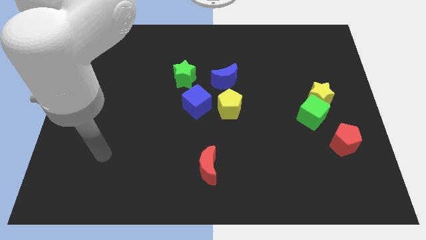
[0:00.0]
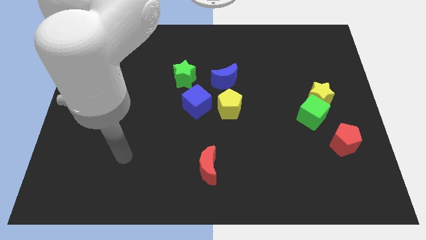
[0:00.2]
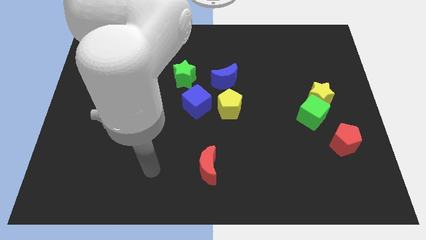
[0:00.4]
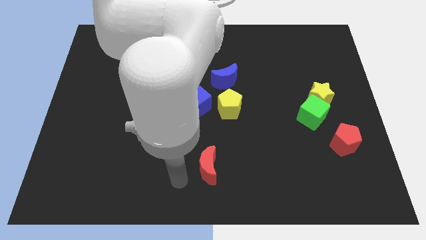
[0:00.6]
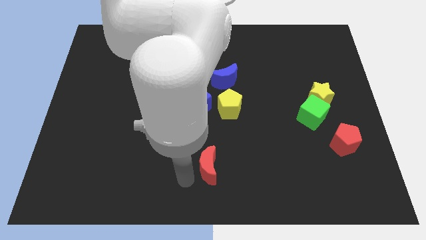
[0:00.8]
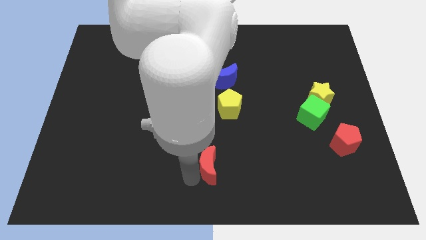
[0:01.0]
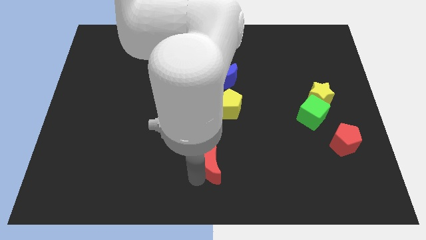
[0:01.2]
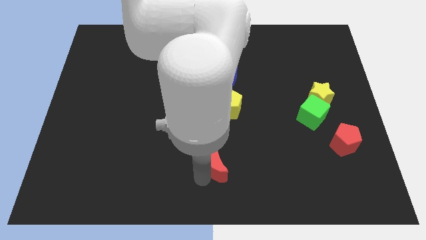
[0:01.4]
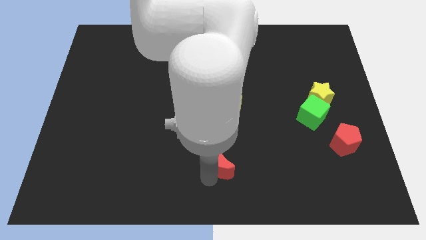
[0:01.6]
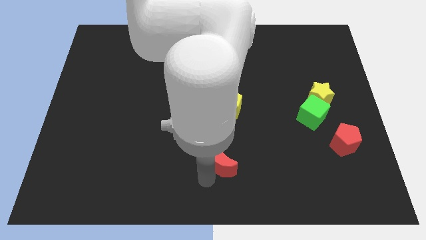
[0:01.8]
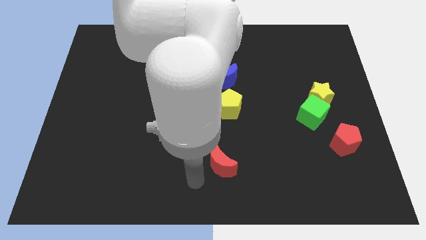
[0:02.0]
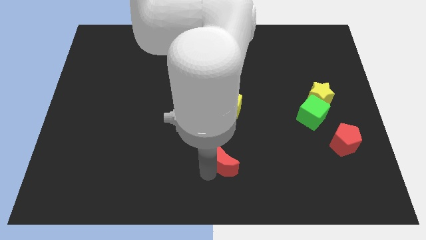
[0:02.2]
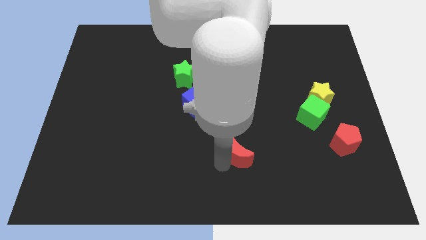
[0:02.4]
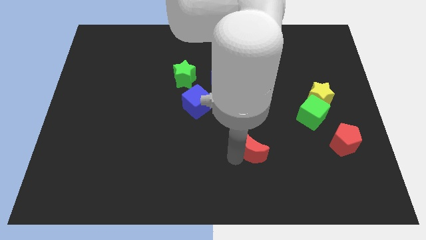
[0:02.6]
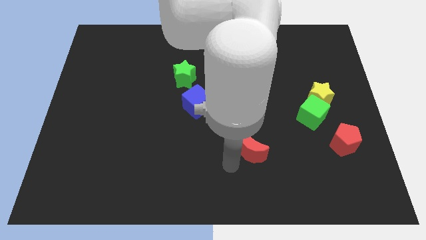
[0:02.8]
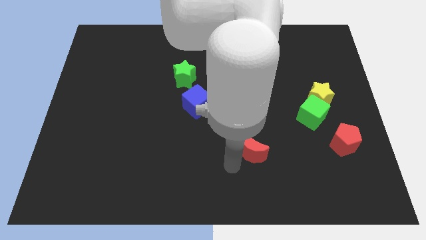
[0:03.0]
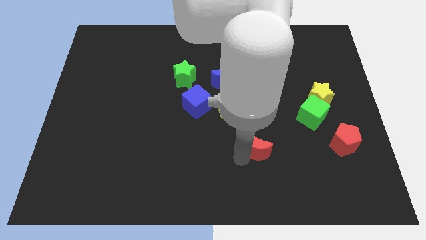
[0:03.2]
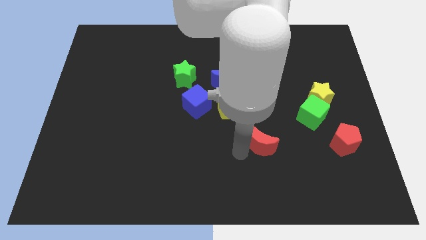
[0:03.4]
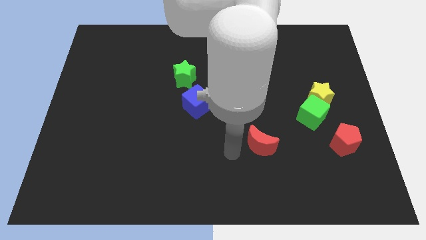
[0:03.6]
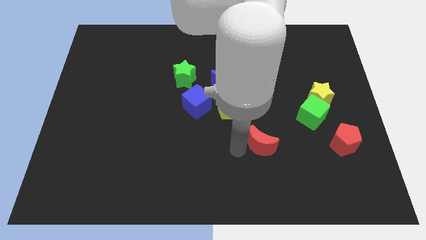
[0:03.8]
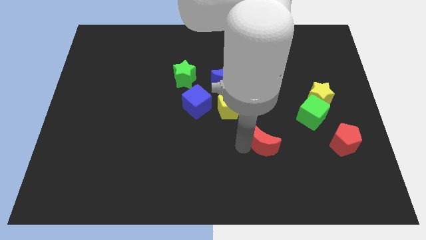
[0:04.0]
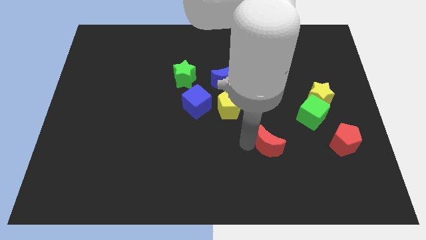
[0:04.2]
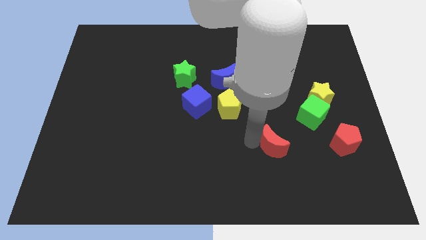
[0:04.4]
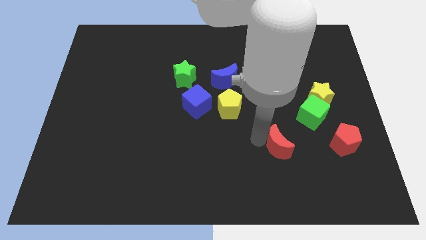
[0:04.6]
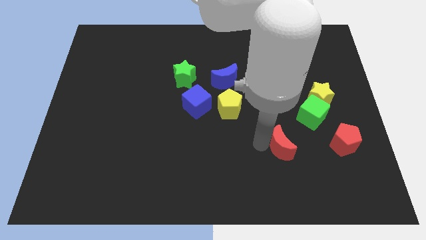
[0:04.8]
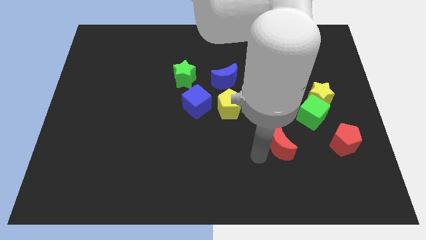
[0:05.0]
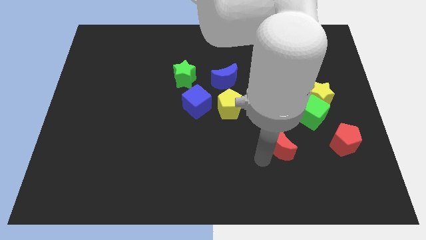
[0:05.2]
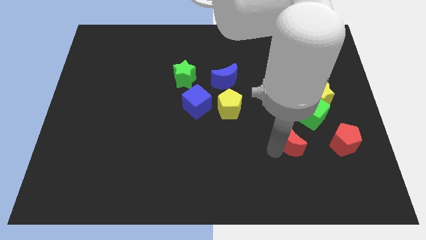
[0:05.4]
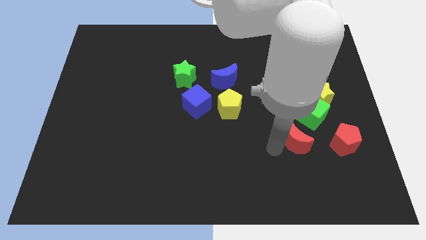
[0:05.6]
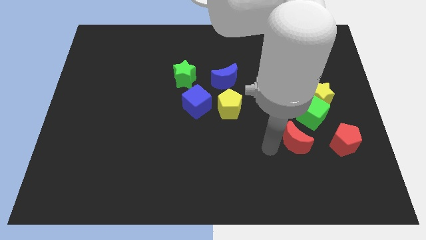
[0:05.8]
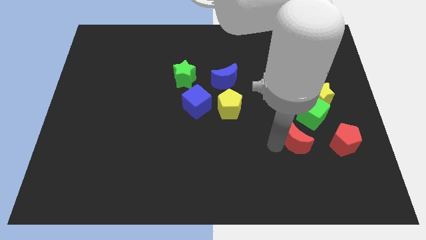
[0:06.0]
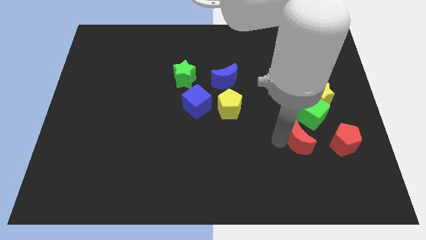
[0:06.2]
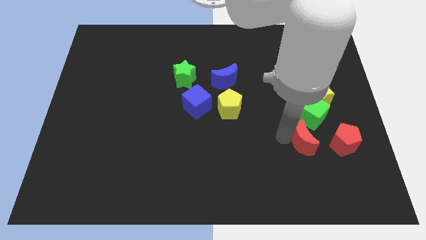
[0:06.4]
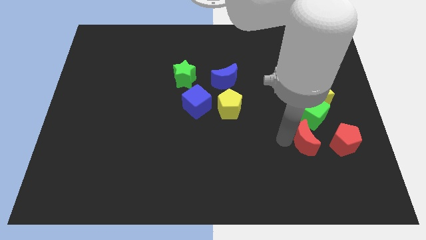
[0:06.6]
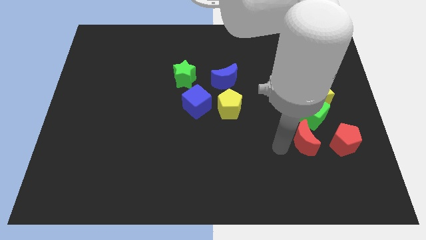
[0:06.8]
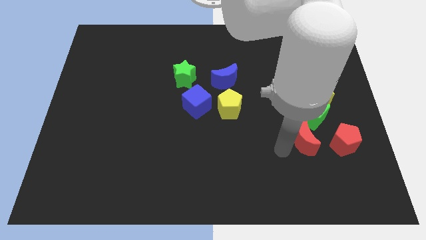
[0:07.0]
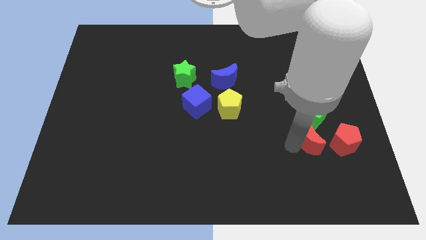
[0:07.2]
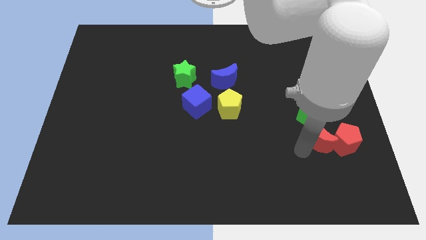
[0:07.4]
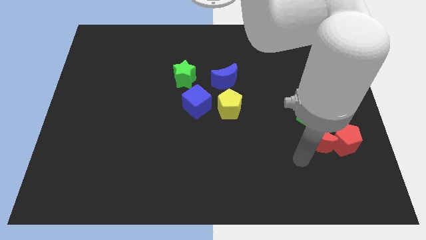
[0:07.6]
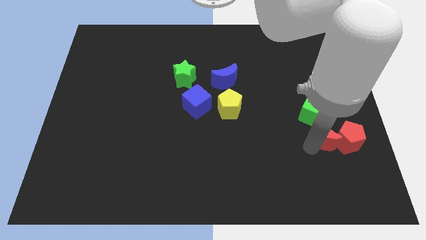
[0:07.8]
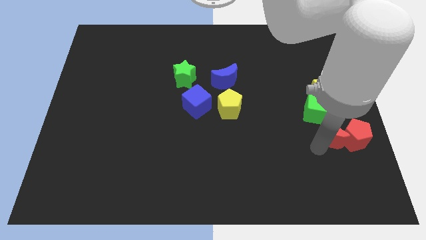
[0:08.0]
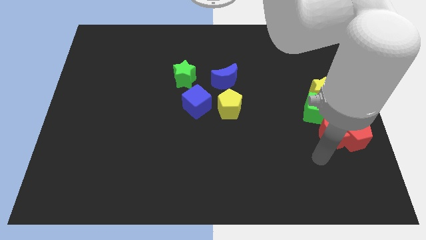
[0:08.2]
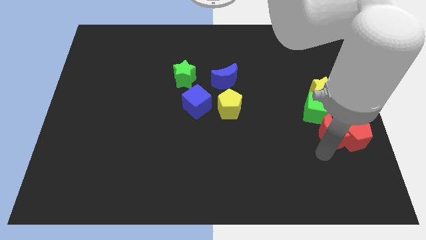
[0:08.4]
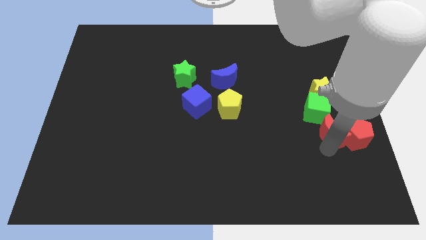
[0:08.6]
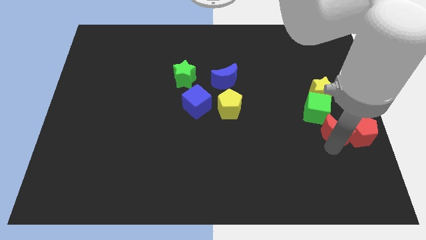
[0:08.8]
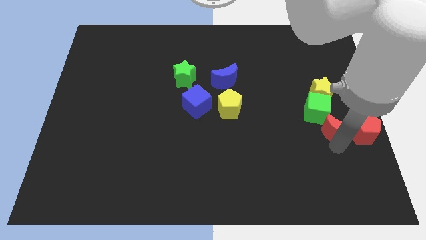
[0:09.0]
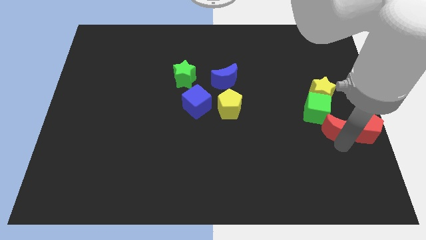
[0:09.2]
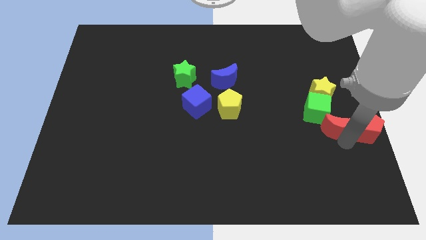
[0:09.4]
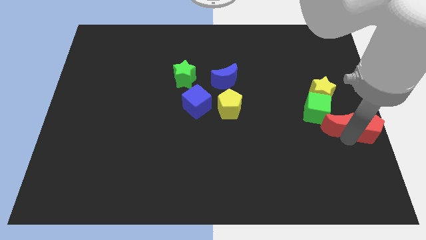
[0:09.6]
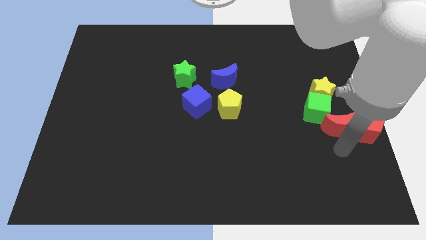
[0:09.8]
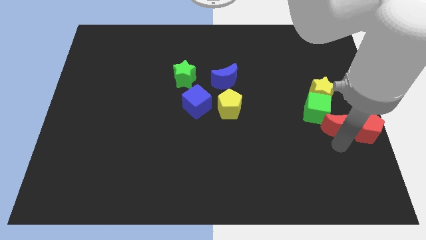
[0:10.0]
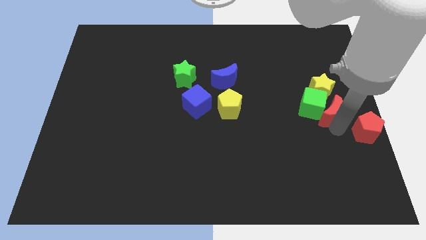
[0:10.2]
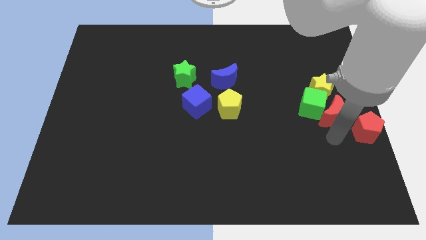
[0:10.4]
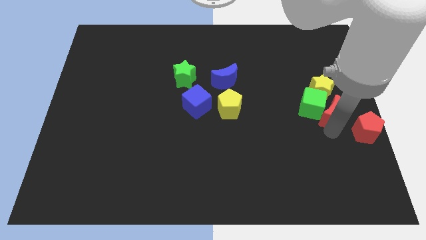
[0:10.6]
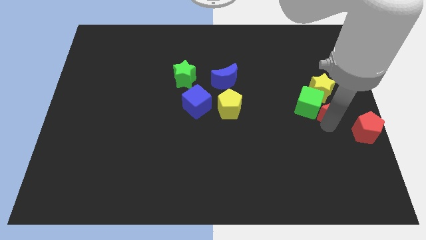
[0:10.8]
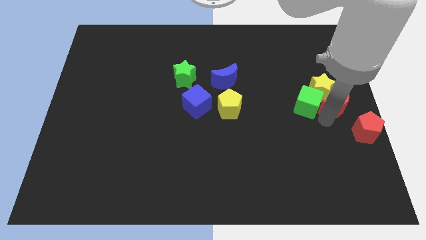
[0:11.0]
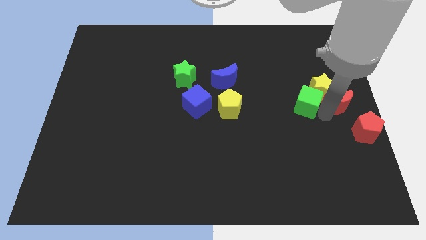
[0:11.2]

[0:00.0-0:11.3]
slide the red moon diagonally up and to the right of the green cube

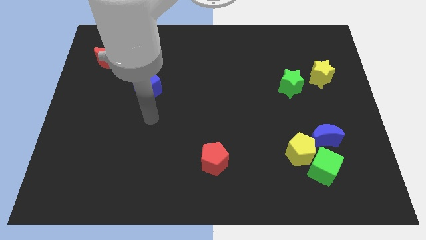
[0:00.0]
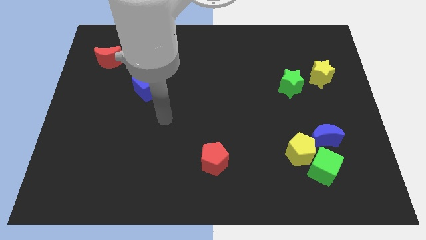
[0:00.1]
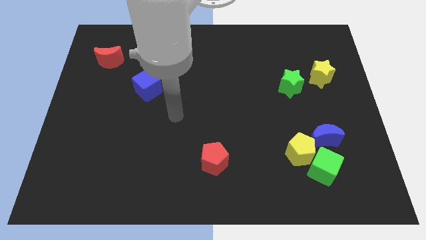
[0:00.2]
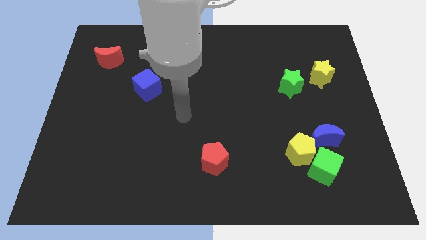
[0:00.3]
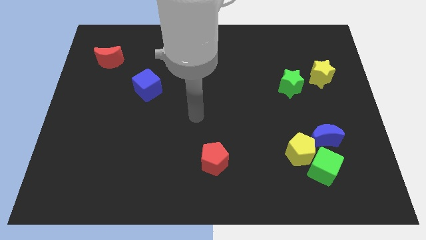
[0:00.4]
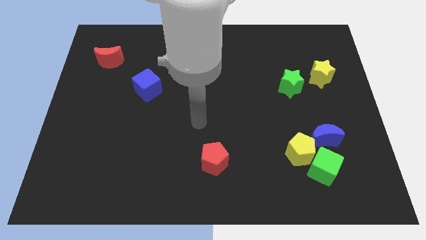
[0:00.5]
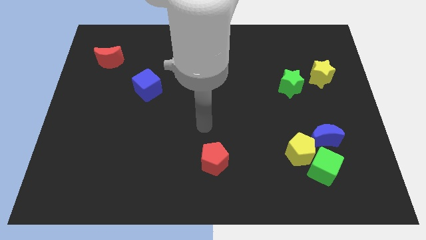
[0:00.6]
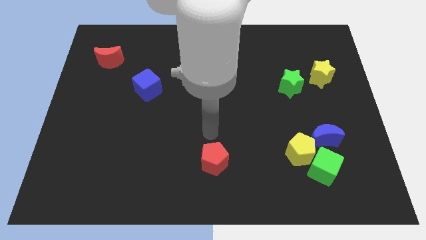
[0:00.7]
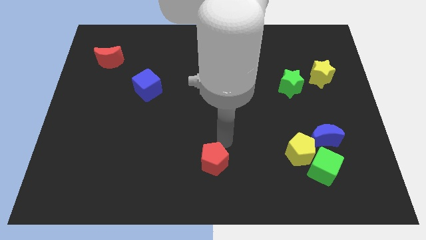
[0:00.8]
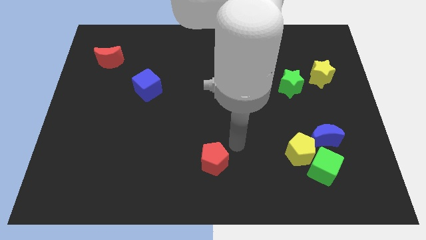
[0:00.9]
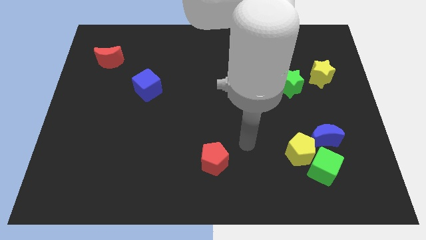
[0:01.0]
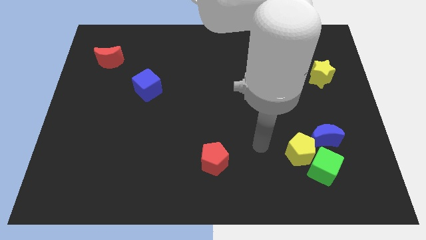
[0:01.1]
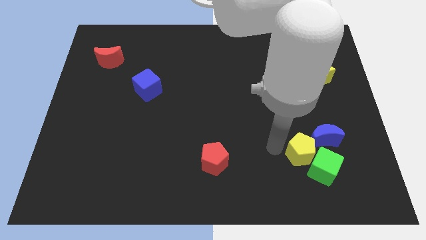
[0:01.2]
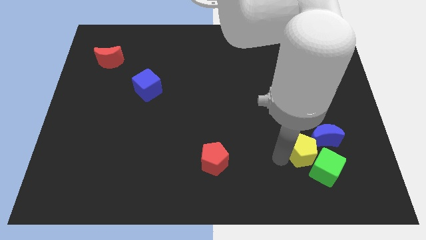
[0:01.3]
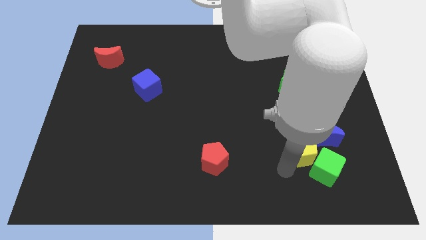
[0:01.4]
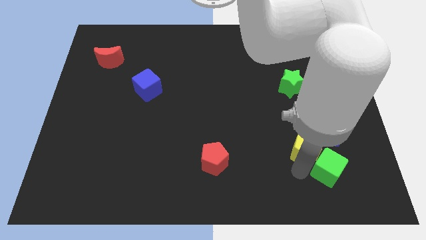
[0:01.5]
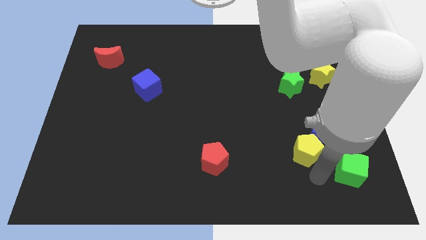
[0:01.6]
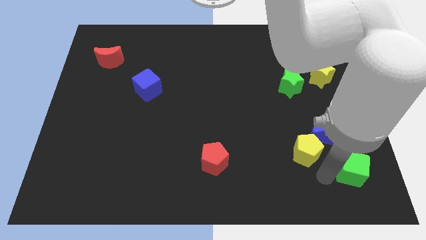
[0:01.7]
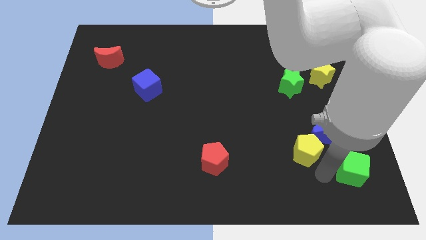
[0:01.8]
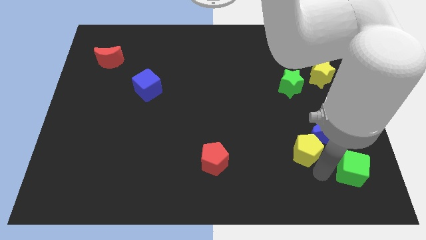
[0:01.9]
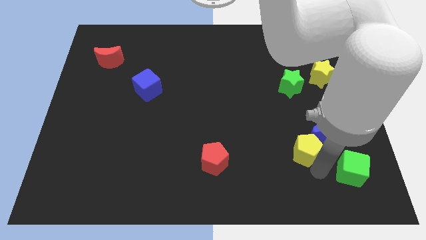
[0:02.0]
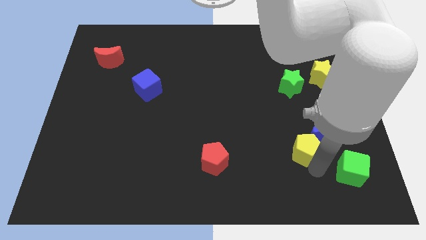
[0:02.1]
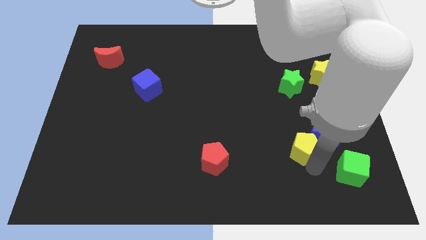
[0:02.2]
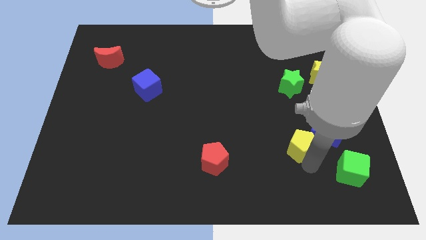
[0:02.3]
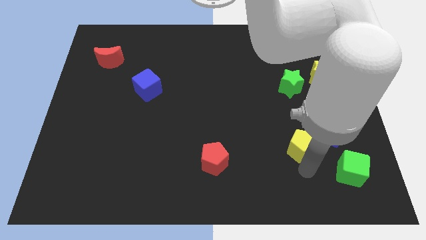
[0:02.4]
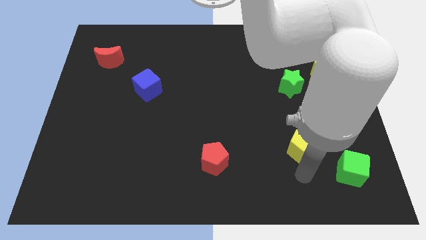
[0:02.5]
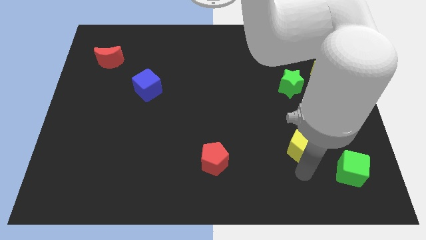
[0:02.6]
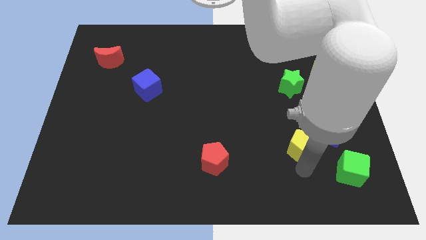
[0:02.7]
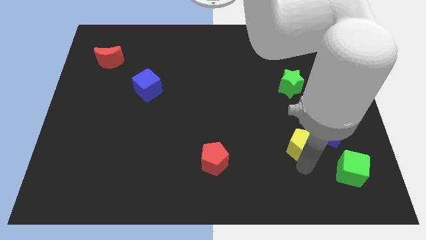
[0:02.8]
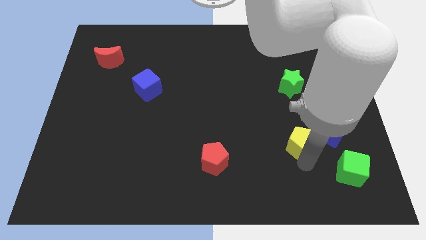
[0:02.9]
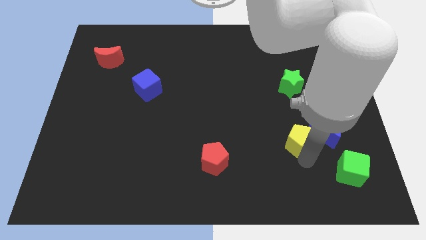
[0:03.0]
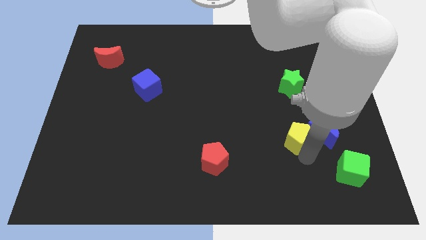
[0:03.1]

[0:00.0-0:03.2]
put the yellow pentagon below the green star
